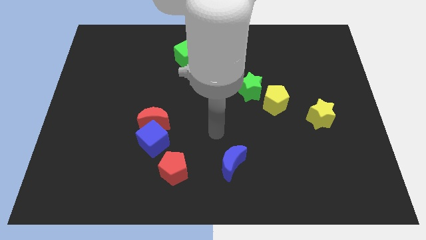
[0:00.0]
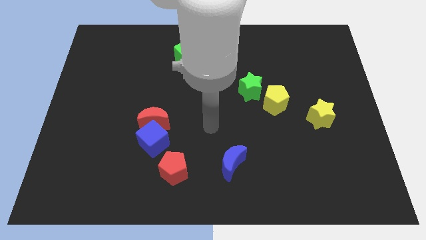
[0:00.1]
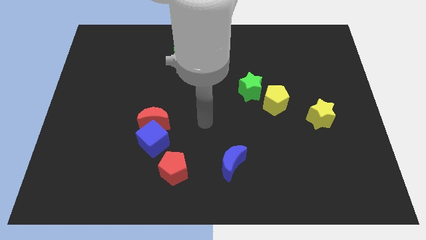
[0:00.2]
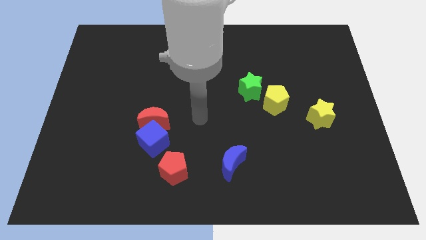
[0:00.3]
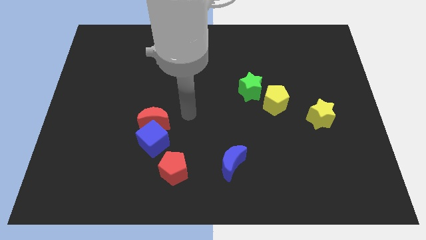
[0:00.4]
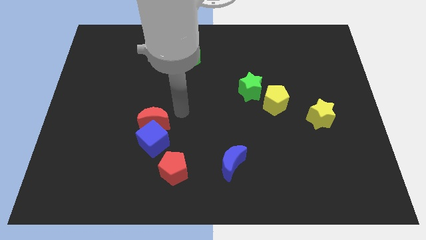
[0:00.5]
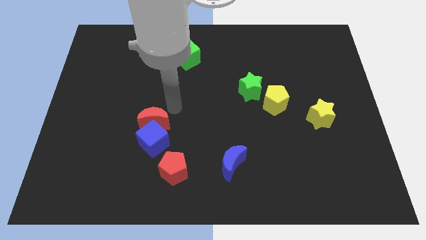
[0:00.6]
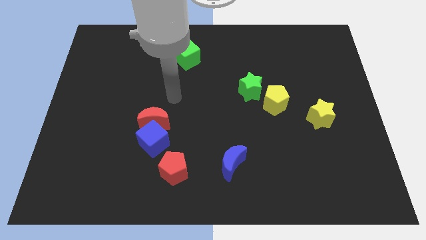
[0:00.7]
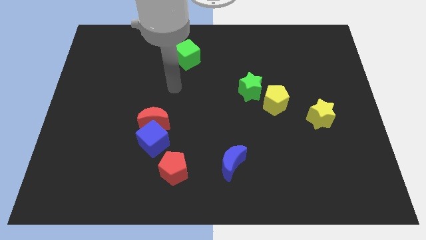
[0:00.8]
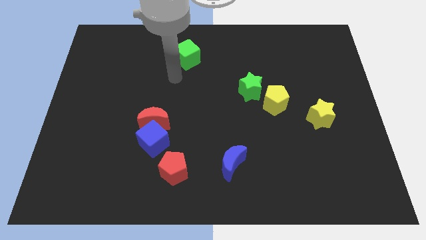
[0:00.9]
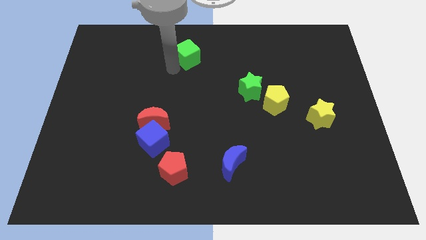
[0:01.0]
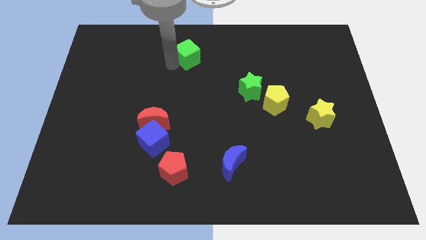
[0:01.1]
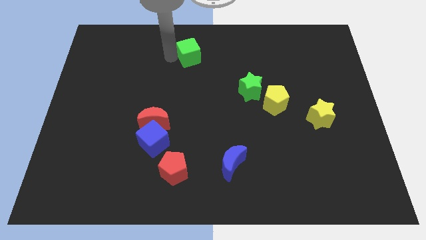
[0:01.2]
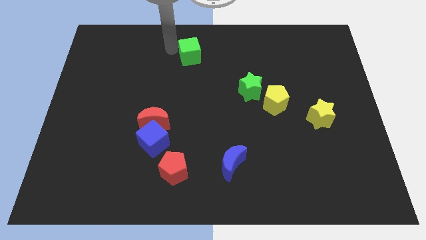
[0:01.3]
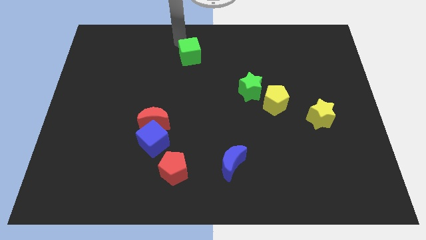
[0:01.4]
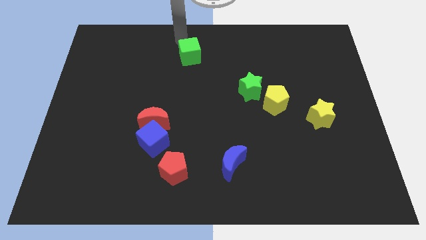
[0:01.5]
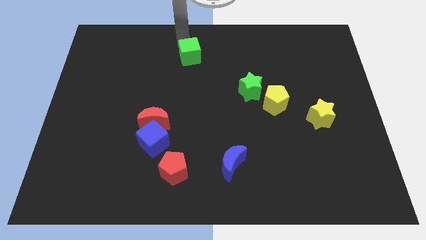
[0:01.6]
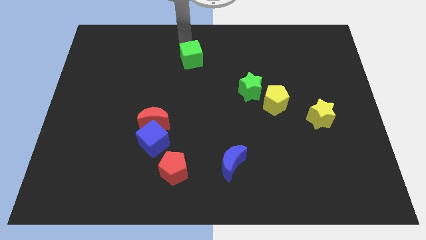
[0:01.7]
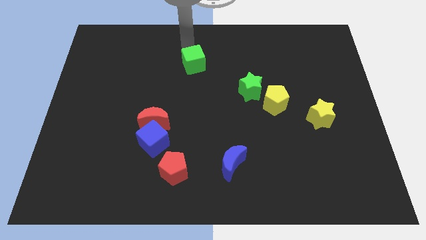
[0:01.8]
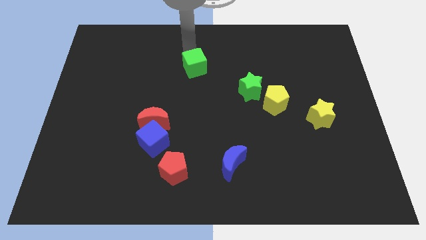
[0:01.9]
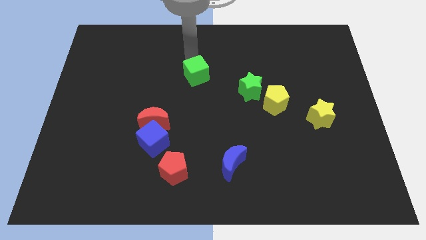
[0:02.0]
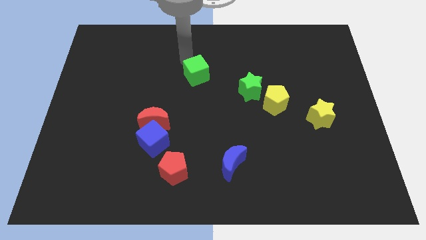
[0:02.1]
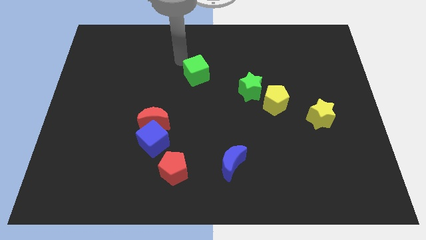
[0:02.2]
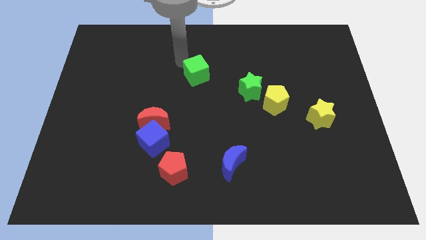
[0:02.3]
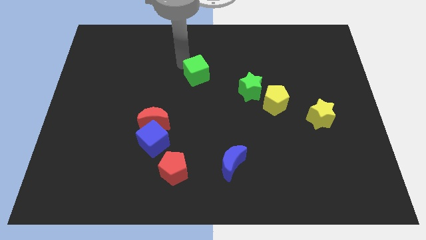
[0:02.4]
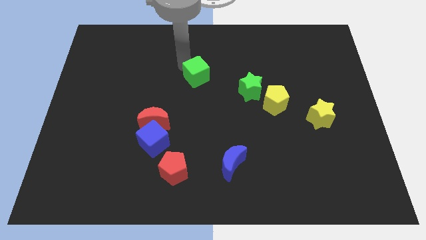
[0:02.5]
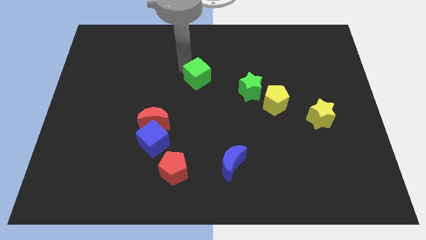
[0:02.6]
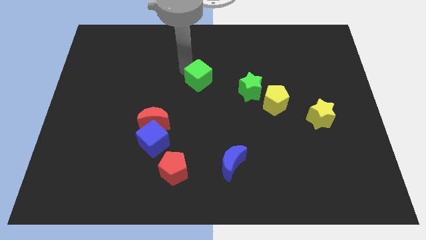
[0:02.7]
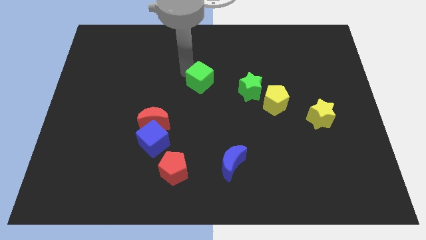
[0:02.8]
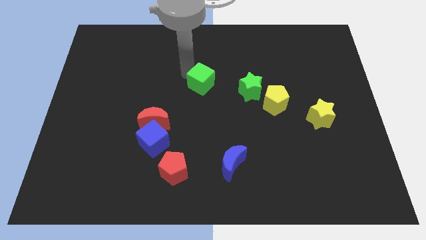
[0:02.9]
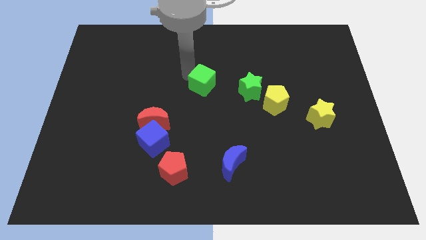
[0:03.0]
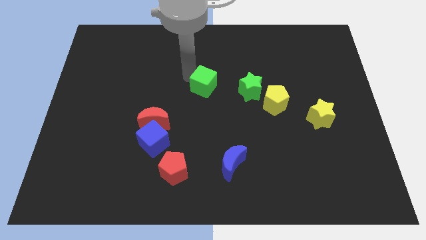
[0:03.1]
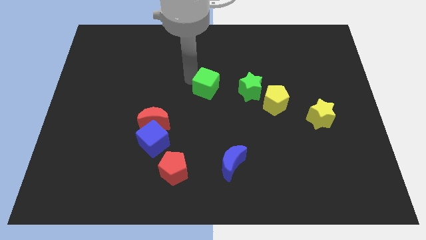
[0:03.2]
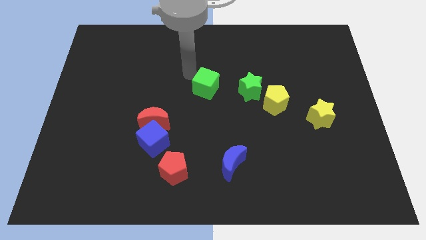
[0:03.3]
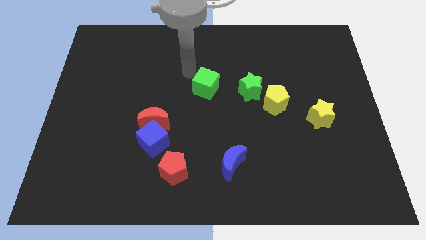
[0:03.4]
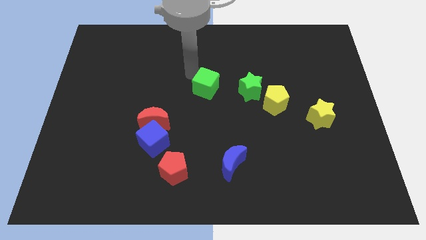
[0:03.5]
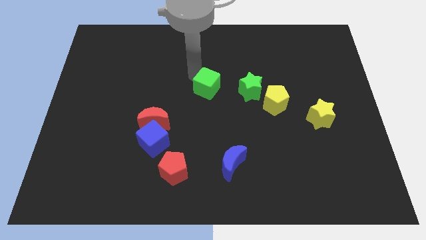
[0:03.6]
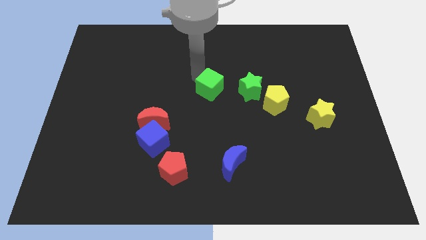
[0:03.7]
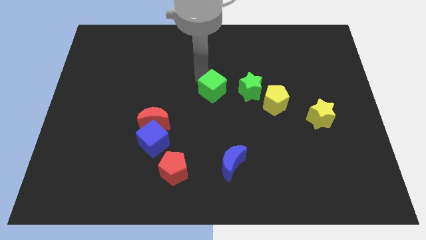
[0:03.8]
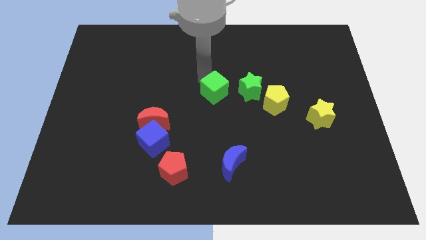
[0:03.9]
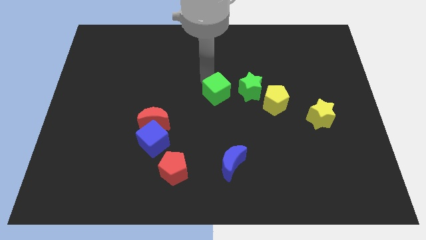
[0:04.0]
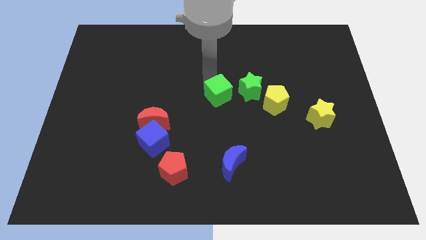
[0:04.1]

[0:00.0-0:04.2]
put the green cube to the bottom left of the green star

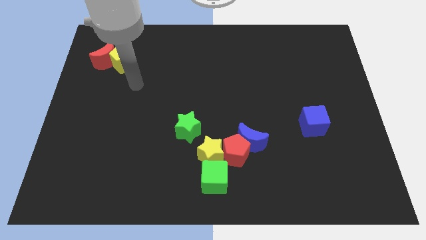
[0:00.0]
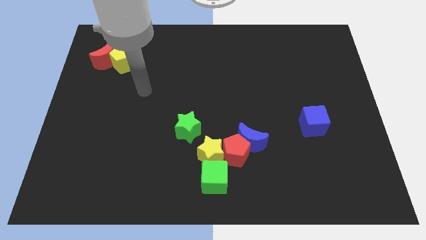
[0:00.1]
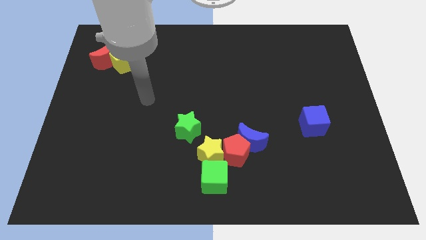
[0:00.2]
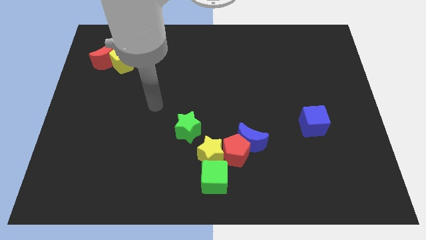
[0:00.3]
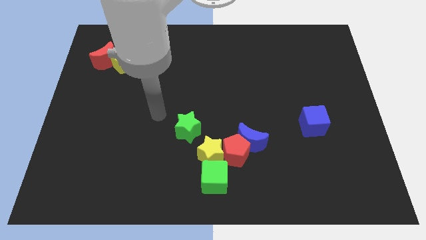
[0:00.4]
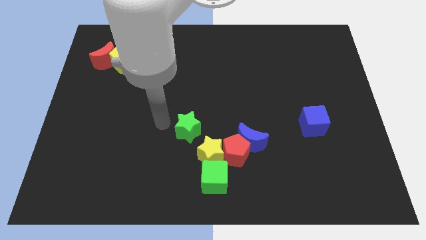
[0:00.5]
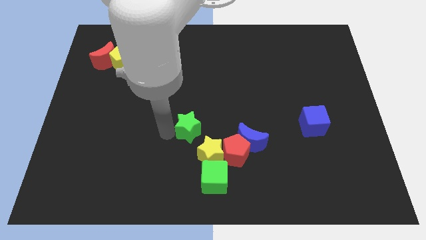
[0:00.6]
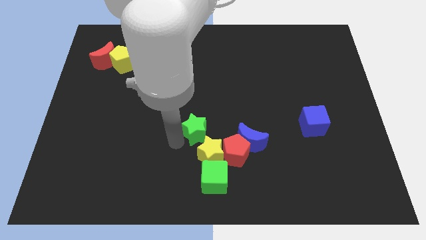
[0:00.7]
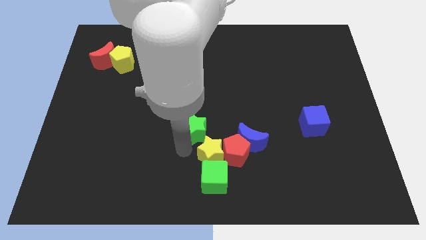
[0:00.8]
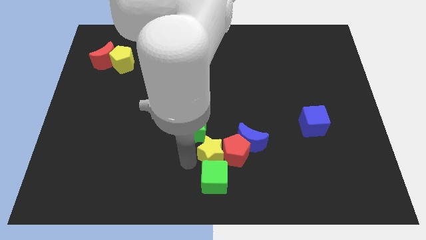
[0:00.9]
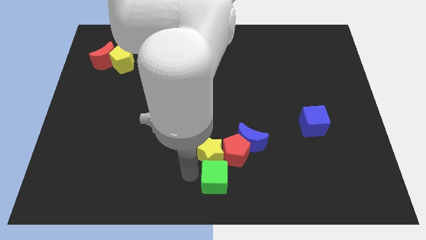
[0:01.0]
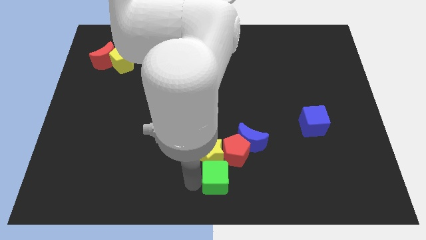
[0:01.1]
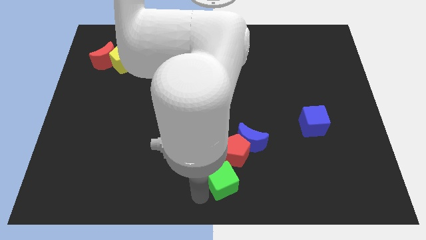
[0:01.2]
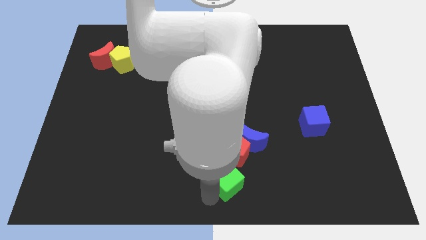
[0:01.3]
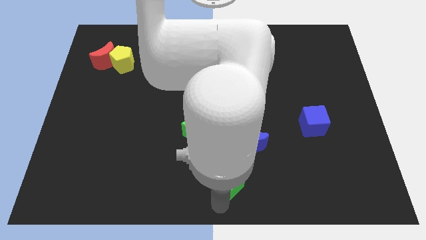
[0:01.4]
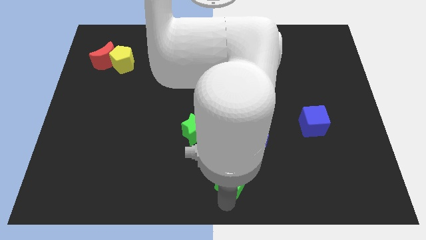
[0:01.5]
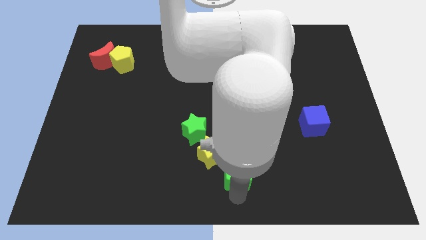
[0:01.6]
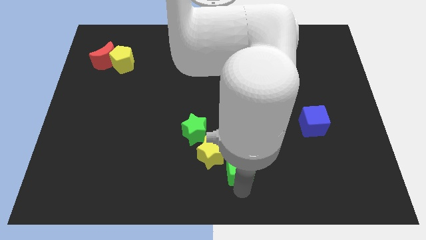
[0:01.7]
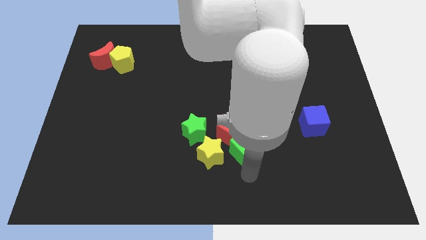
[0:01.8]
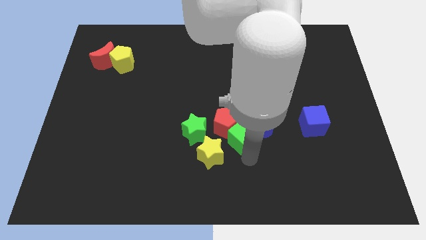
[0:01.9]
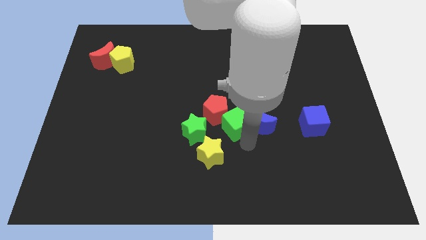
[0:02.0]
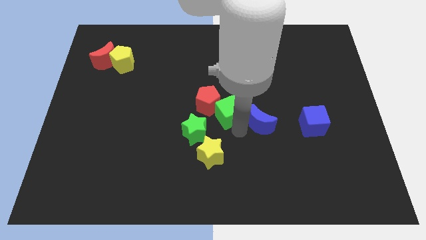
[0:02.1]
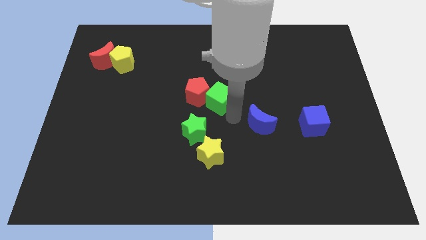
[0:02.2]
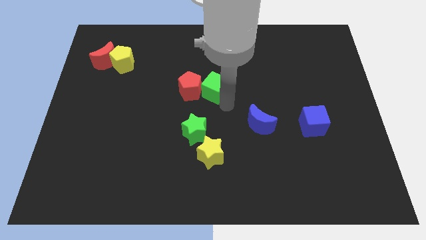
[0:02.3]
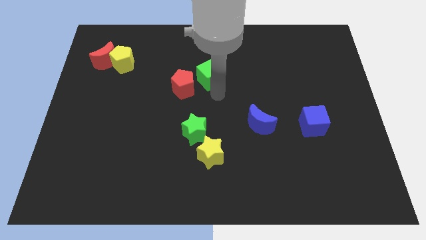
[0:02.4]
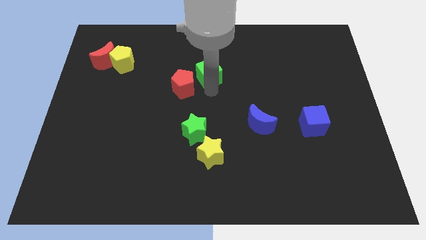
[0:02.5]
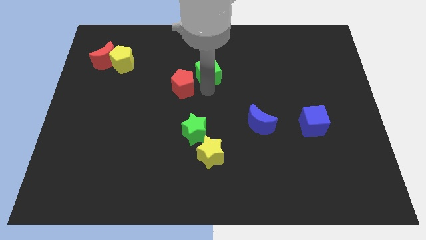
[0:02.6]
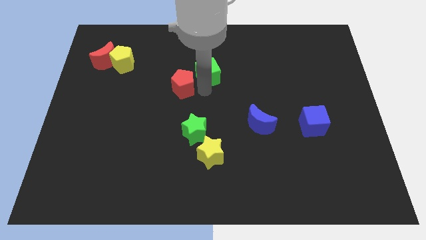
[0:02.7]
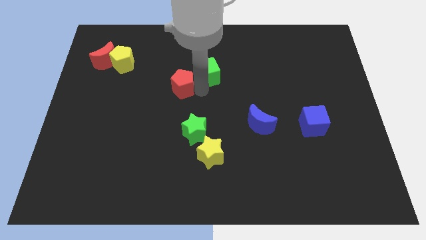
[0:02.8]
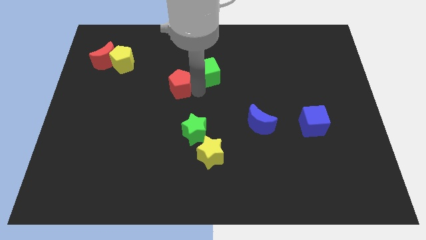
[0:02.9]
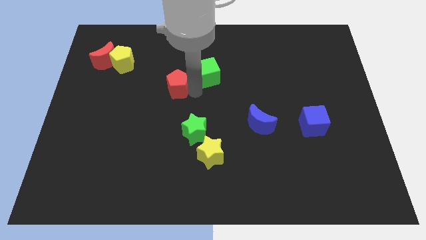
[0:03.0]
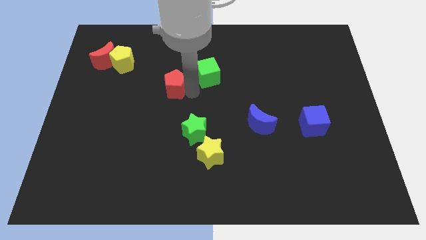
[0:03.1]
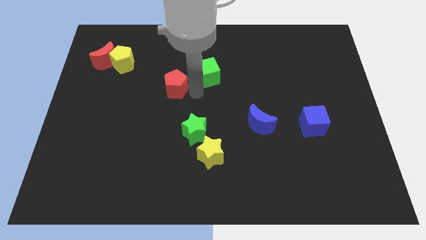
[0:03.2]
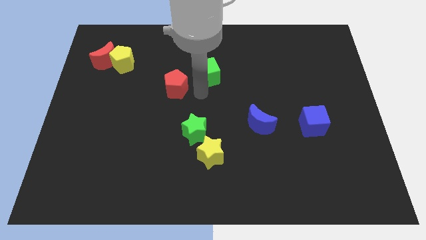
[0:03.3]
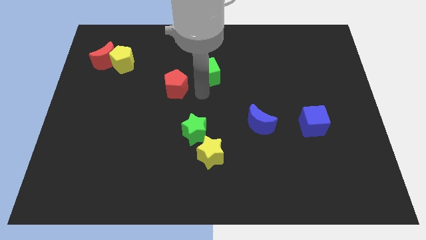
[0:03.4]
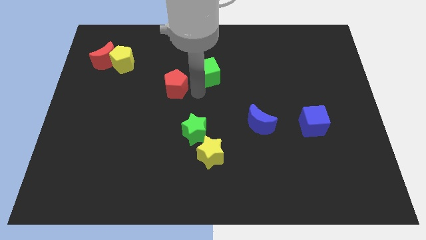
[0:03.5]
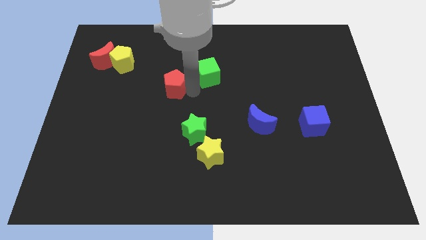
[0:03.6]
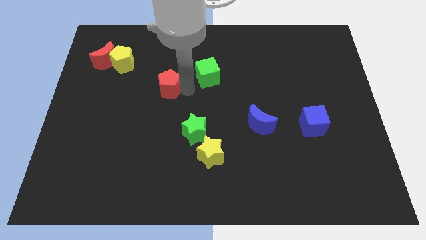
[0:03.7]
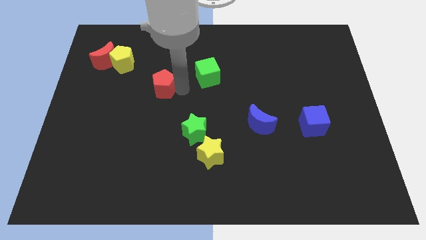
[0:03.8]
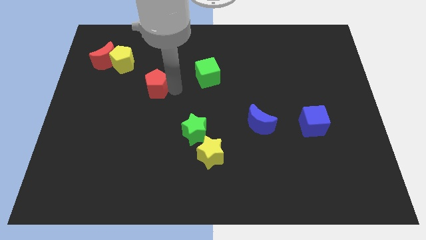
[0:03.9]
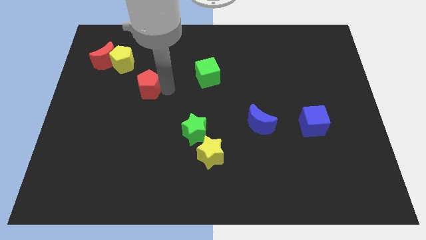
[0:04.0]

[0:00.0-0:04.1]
put the red pentagon diagonally down and to the right of the yellow pentagon
